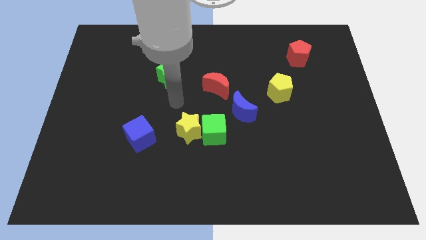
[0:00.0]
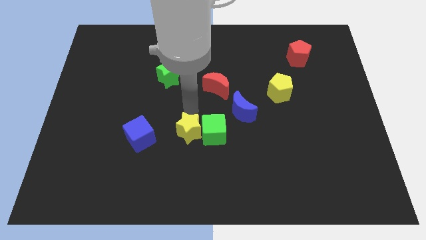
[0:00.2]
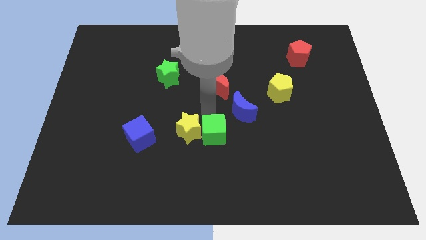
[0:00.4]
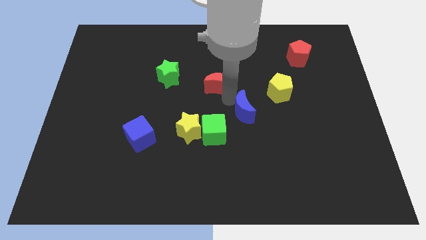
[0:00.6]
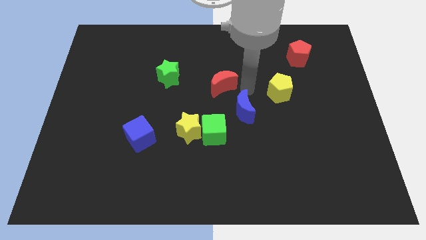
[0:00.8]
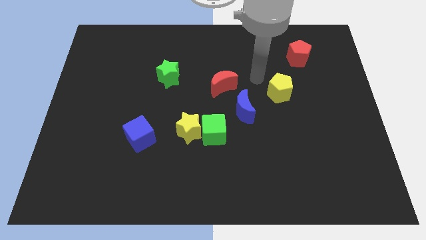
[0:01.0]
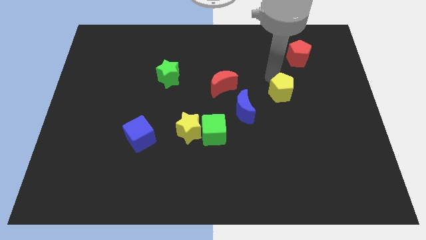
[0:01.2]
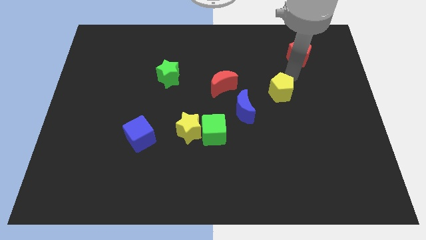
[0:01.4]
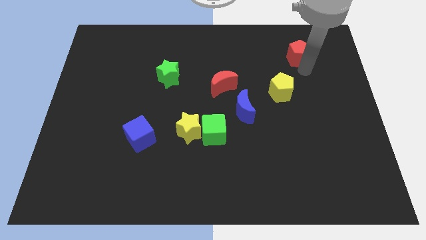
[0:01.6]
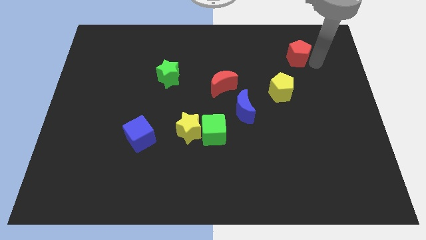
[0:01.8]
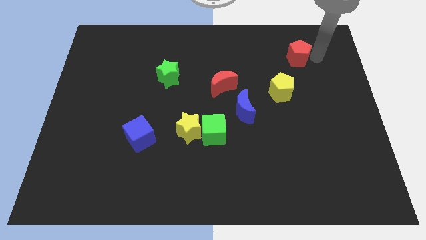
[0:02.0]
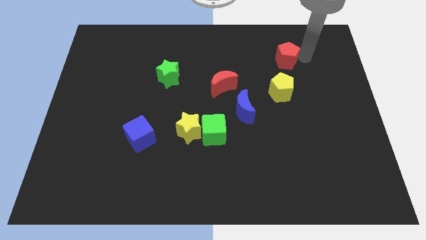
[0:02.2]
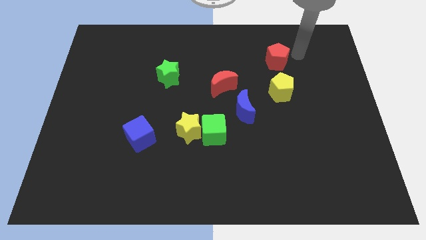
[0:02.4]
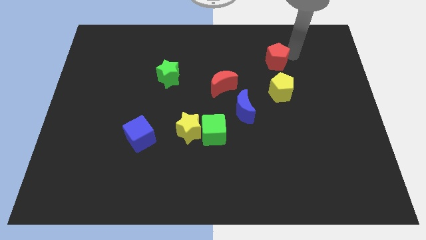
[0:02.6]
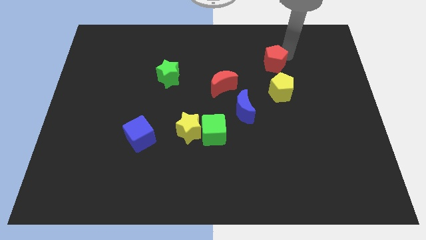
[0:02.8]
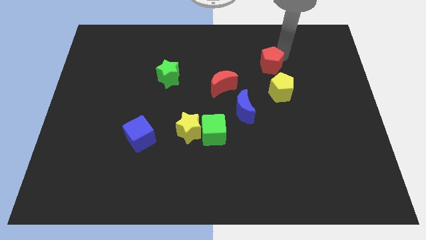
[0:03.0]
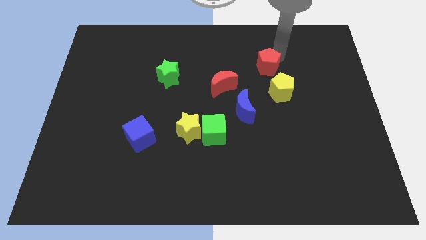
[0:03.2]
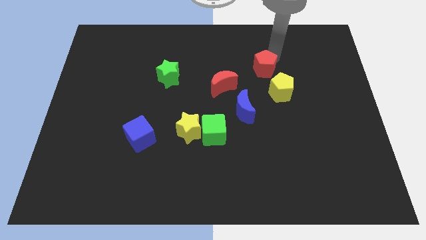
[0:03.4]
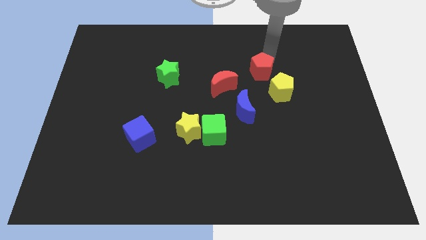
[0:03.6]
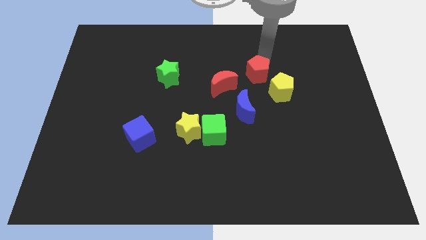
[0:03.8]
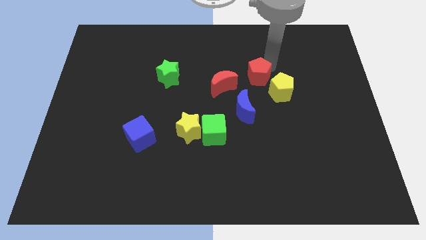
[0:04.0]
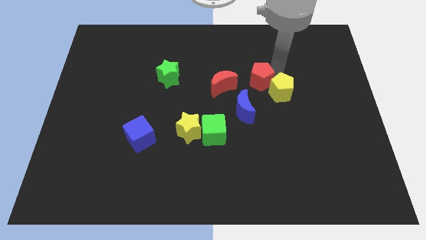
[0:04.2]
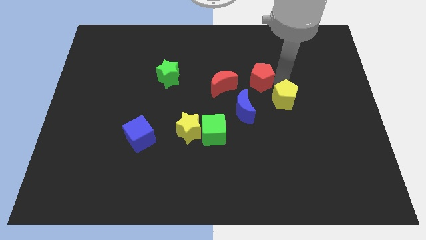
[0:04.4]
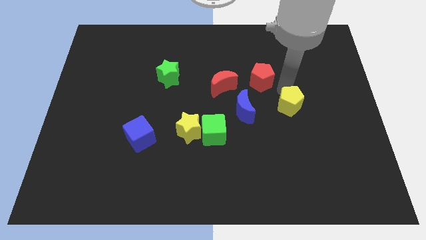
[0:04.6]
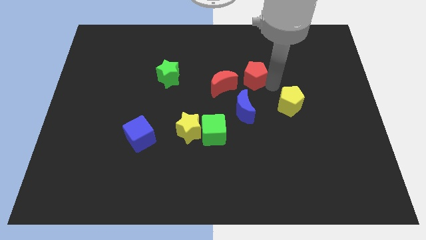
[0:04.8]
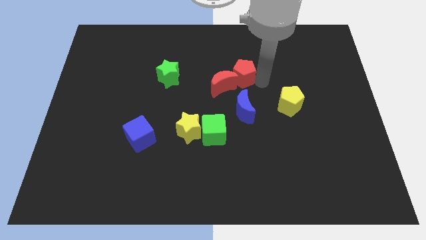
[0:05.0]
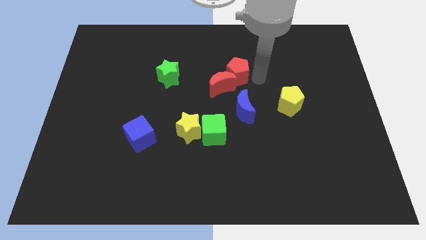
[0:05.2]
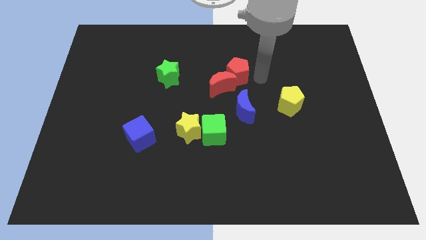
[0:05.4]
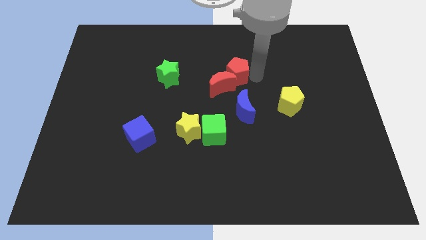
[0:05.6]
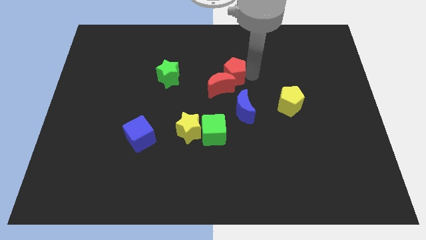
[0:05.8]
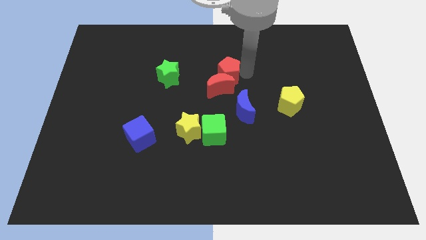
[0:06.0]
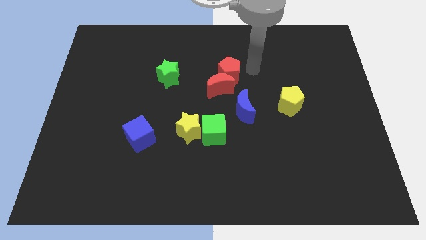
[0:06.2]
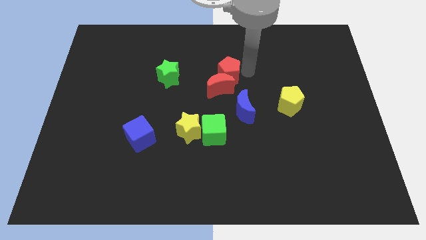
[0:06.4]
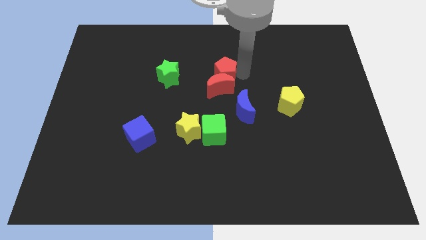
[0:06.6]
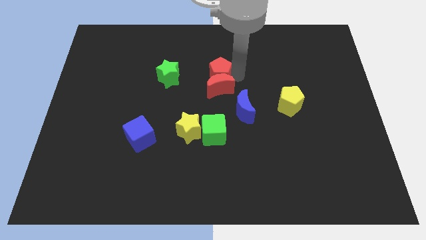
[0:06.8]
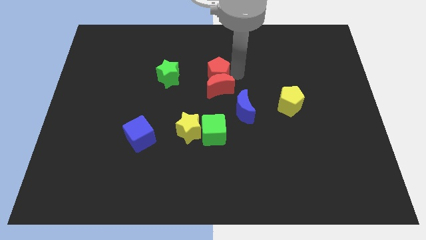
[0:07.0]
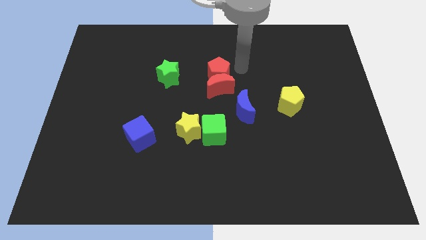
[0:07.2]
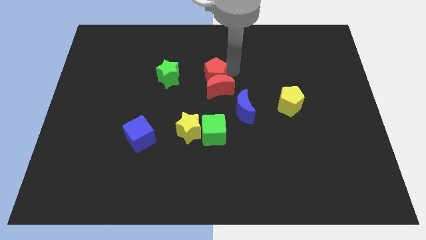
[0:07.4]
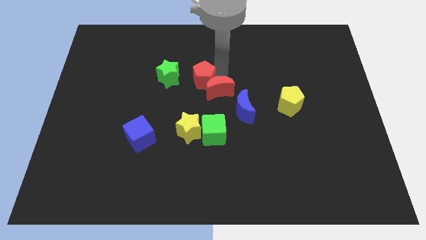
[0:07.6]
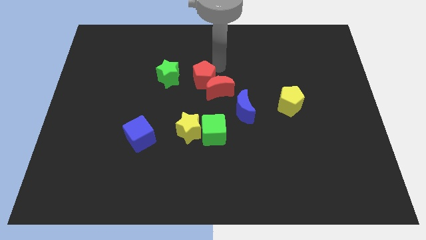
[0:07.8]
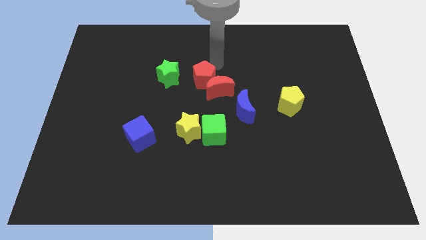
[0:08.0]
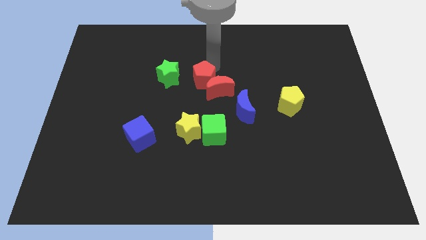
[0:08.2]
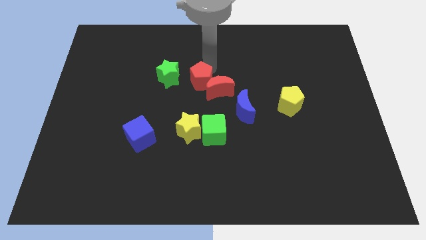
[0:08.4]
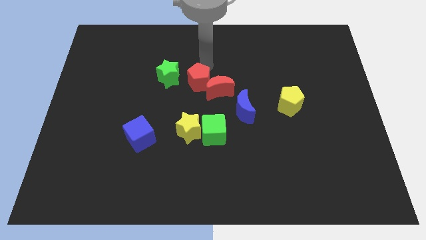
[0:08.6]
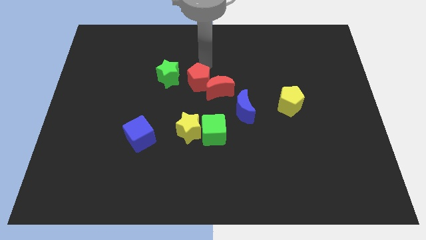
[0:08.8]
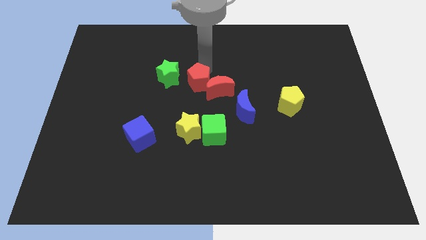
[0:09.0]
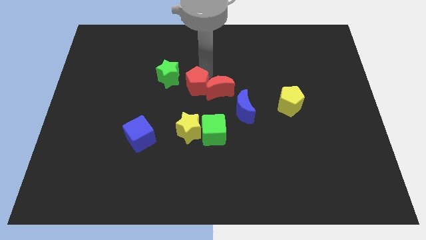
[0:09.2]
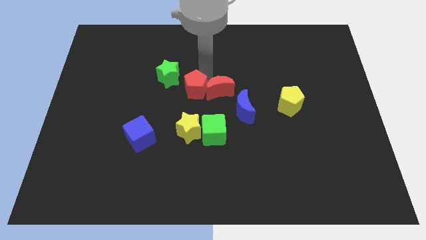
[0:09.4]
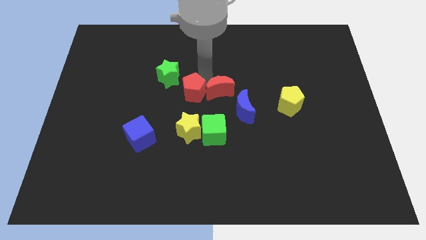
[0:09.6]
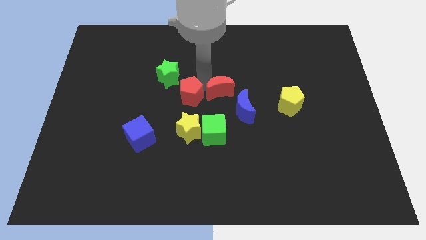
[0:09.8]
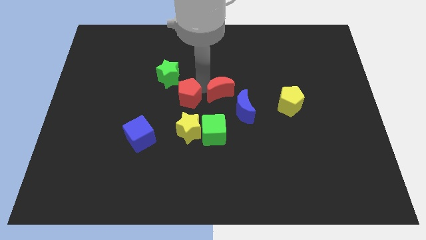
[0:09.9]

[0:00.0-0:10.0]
put the red pentagon diagonally up and to the left of the green cube

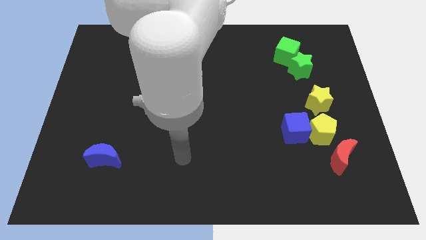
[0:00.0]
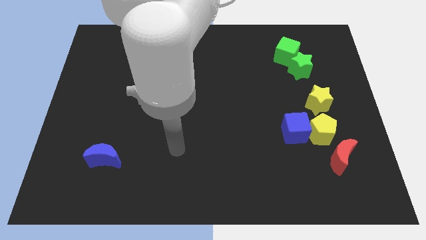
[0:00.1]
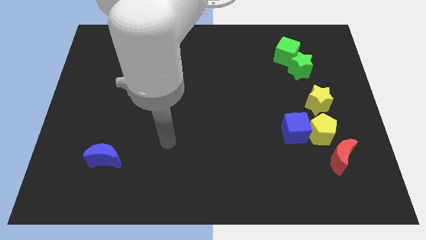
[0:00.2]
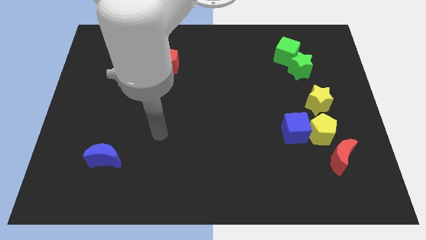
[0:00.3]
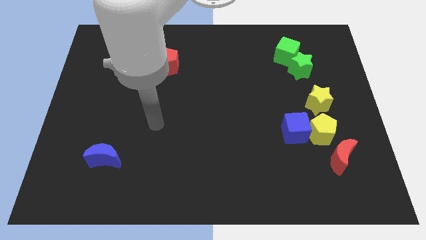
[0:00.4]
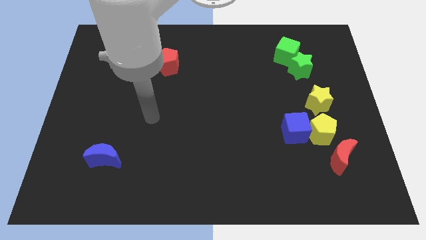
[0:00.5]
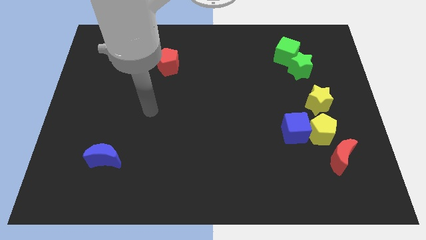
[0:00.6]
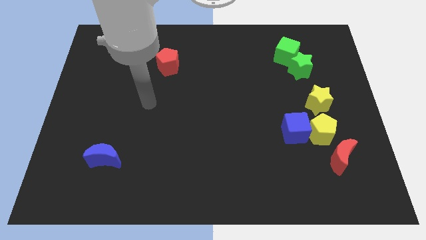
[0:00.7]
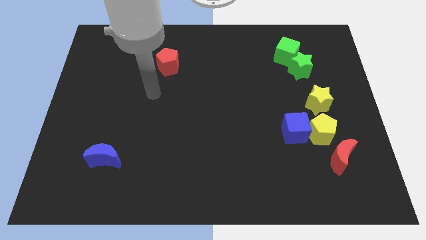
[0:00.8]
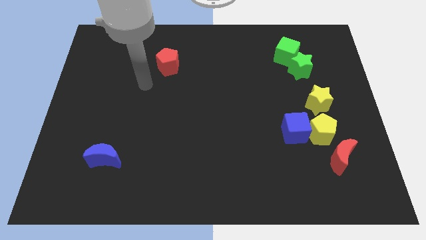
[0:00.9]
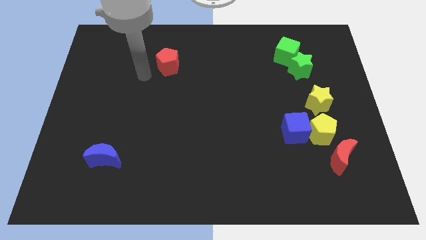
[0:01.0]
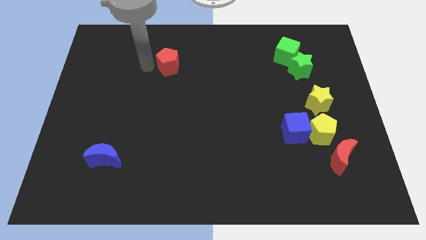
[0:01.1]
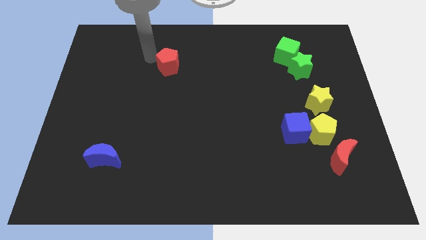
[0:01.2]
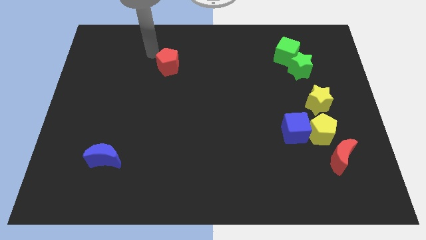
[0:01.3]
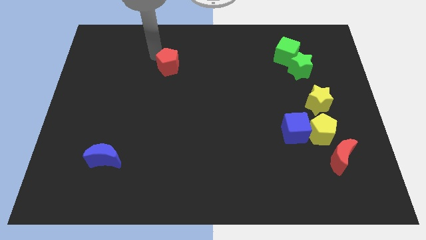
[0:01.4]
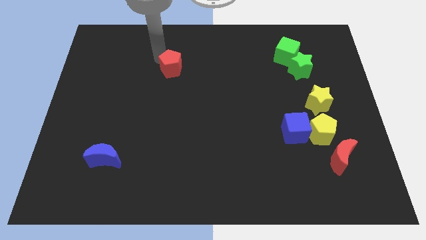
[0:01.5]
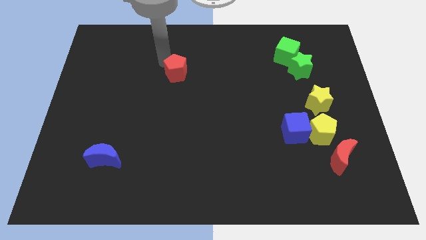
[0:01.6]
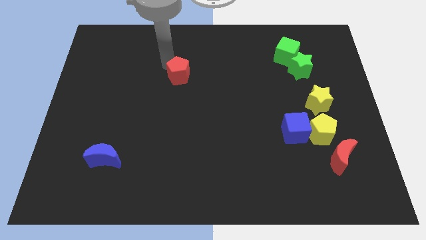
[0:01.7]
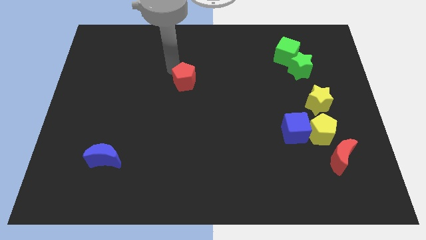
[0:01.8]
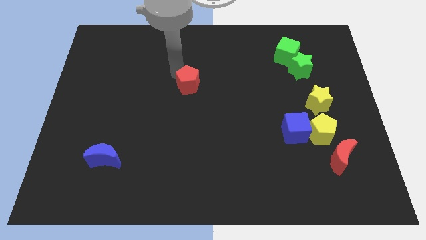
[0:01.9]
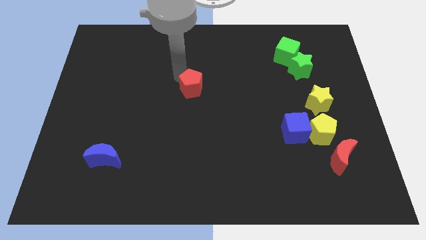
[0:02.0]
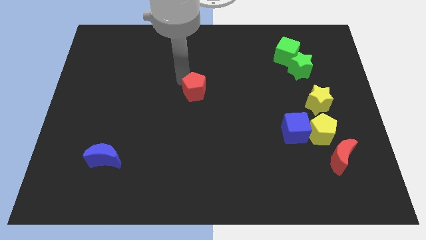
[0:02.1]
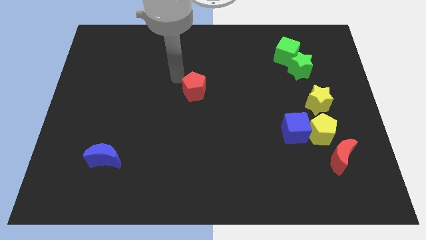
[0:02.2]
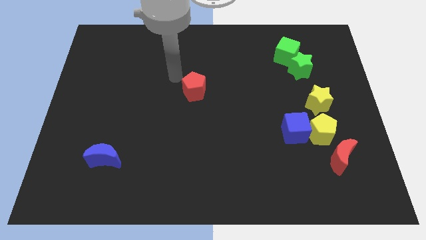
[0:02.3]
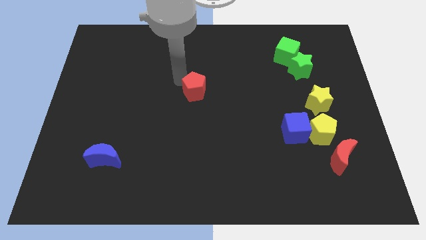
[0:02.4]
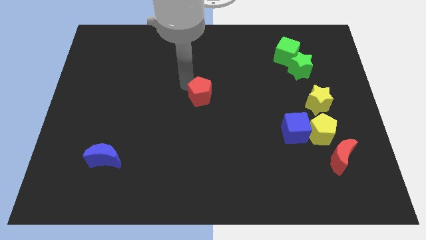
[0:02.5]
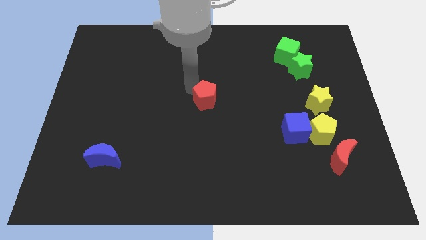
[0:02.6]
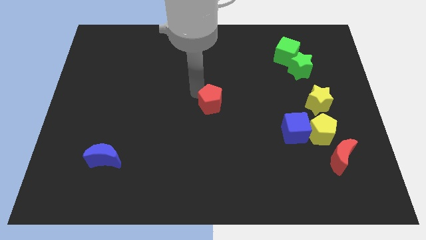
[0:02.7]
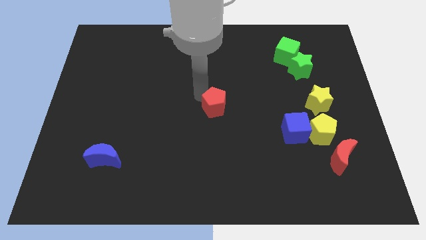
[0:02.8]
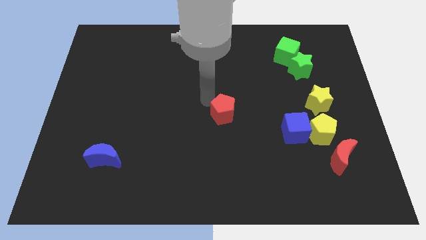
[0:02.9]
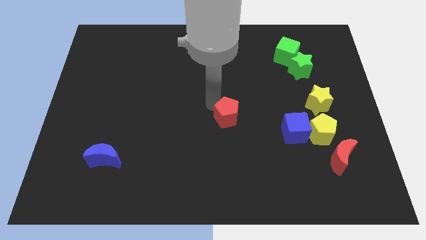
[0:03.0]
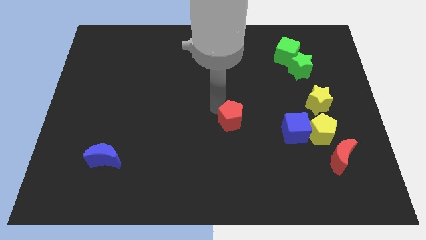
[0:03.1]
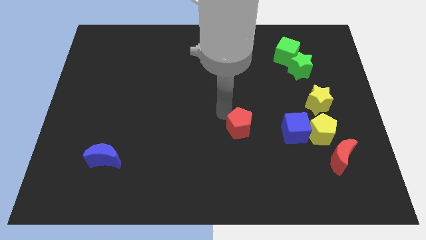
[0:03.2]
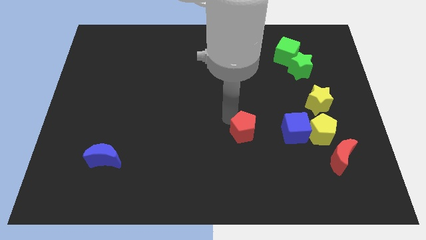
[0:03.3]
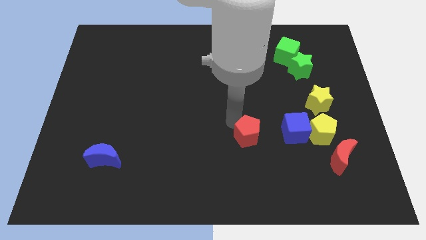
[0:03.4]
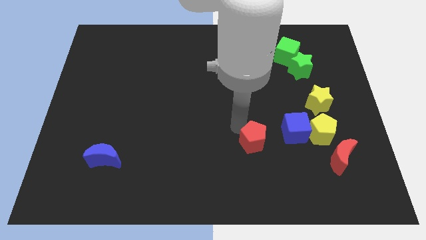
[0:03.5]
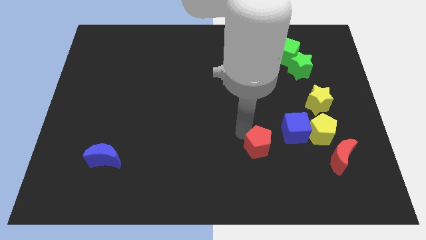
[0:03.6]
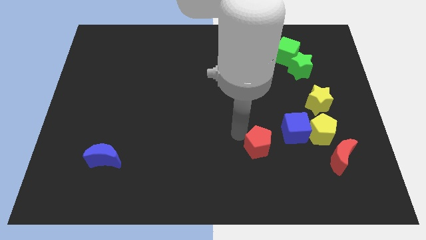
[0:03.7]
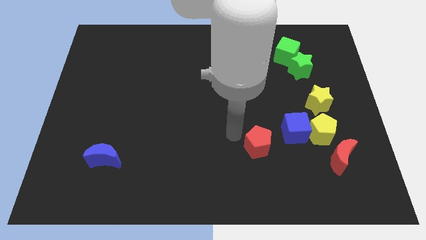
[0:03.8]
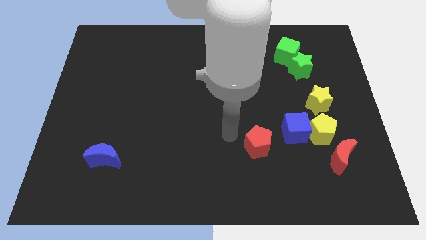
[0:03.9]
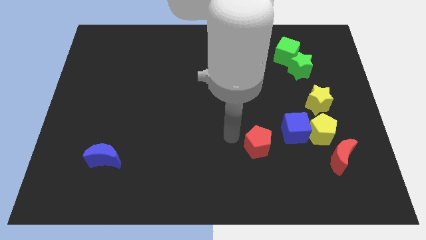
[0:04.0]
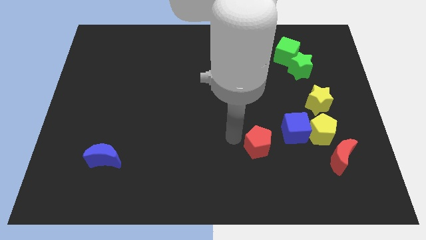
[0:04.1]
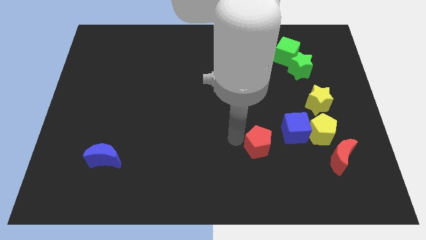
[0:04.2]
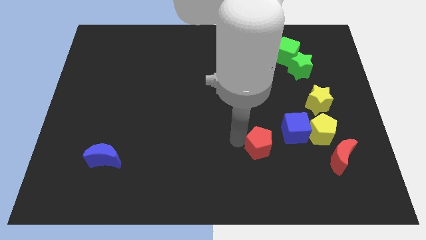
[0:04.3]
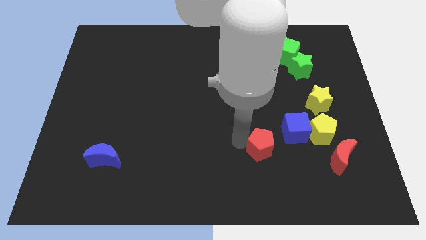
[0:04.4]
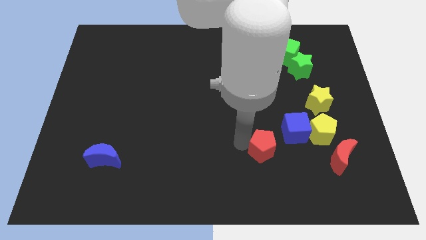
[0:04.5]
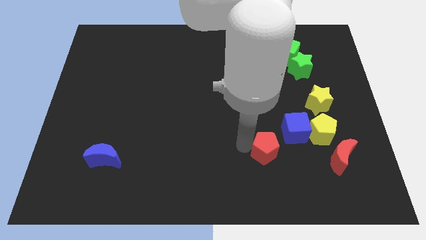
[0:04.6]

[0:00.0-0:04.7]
push the red pentagon to the left of the red moon
